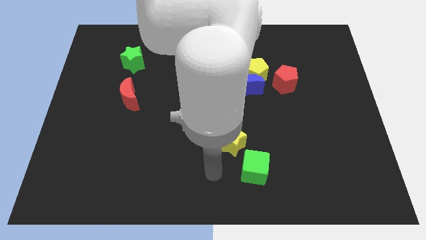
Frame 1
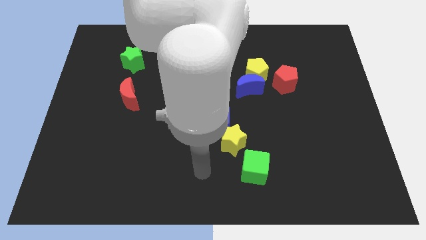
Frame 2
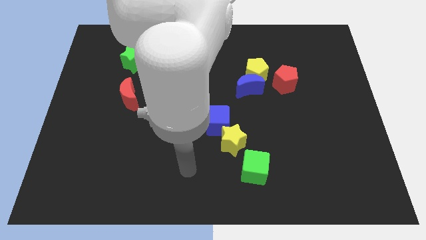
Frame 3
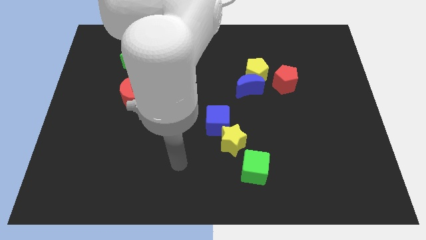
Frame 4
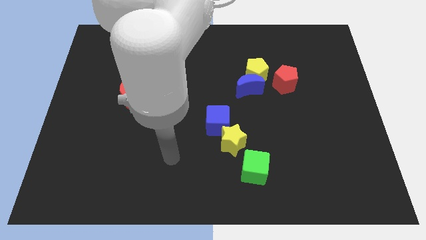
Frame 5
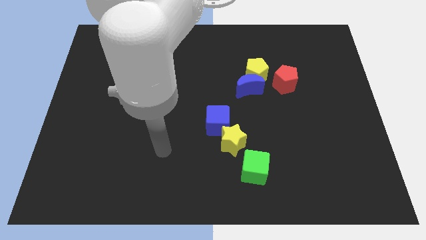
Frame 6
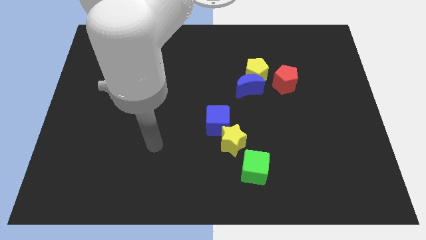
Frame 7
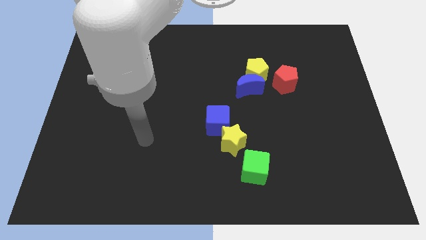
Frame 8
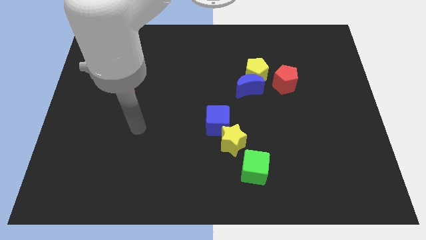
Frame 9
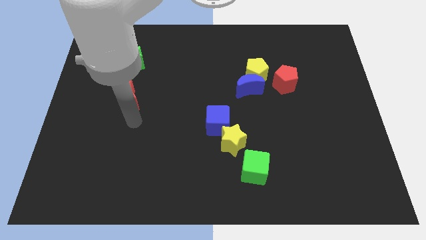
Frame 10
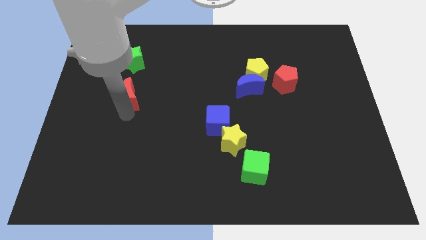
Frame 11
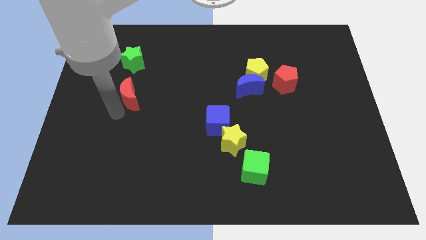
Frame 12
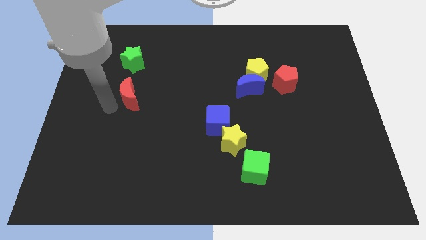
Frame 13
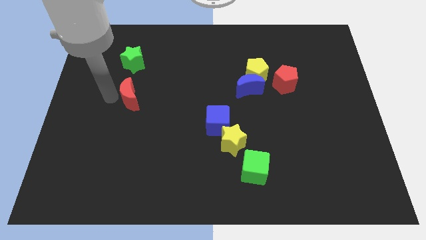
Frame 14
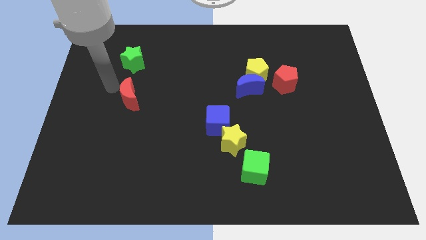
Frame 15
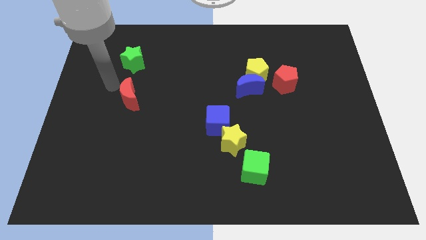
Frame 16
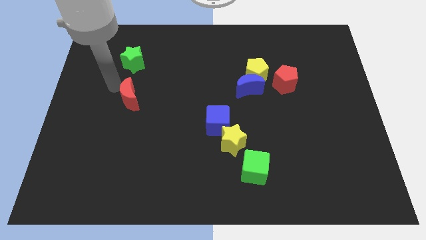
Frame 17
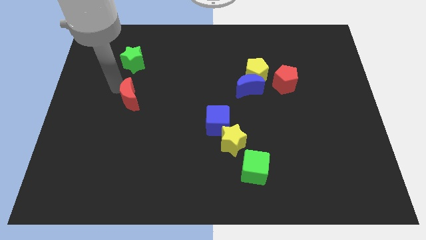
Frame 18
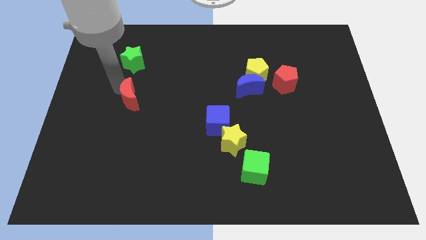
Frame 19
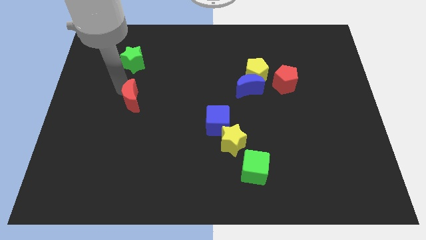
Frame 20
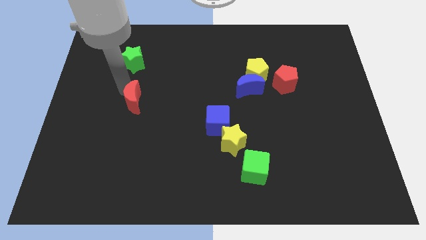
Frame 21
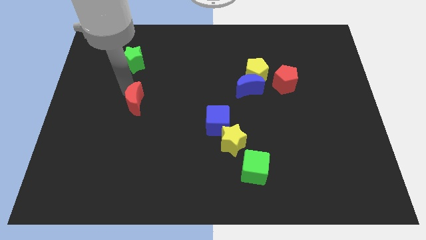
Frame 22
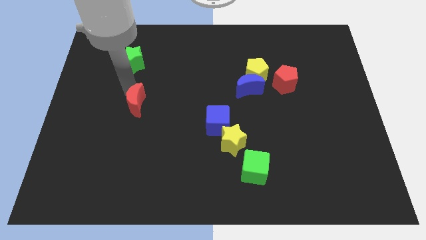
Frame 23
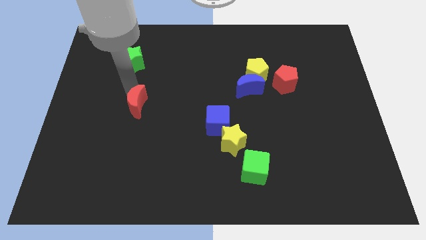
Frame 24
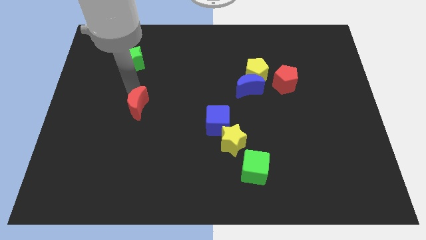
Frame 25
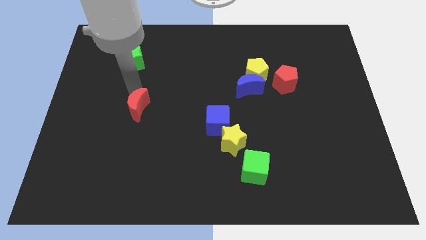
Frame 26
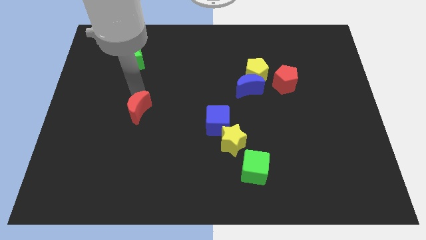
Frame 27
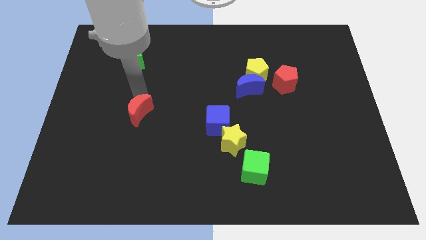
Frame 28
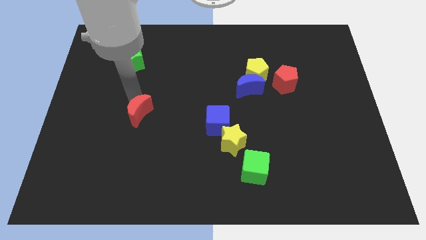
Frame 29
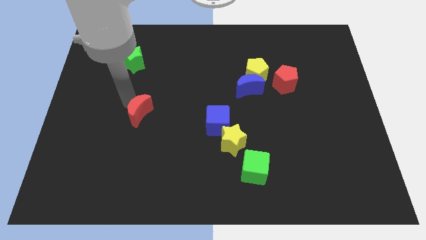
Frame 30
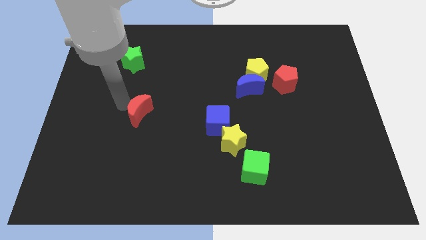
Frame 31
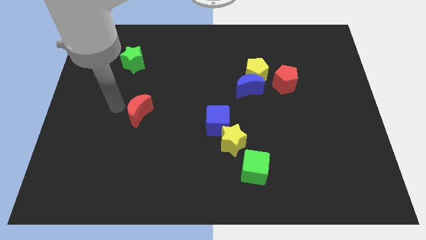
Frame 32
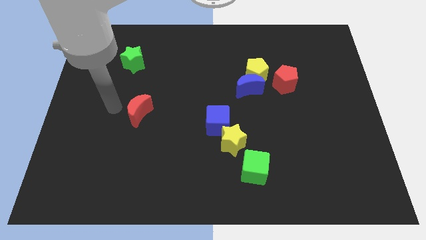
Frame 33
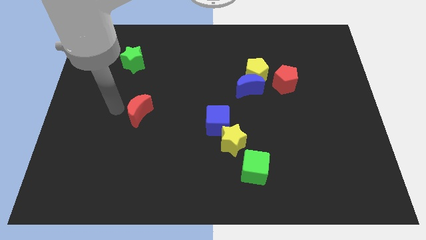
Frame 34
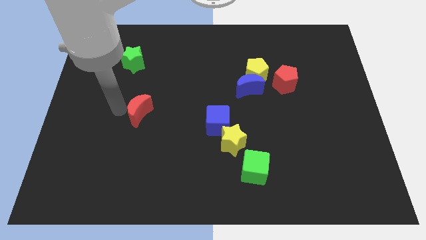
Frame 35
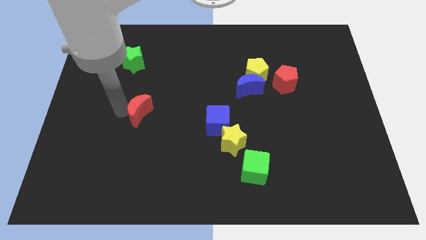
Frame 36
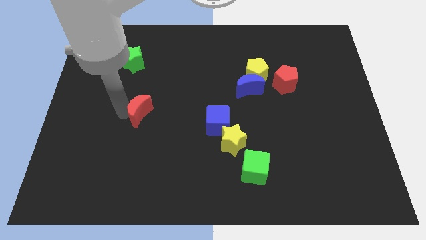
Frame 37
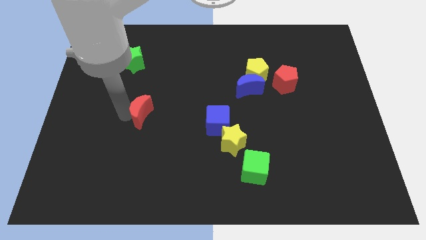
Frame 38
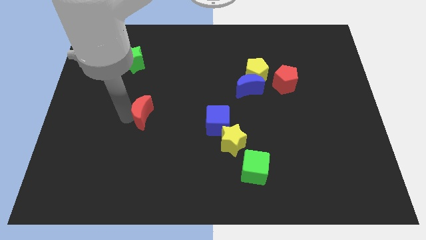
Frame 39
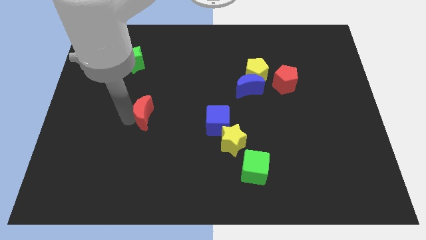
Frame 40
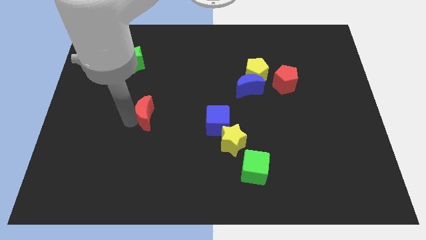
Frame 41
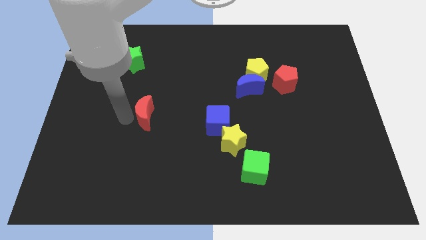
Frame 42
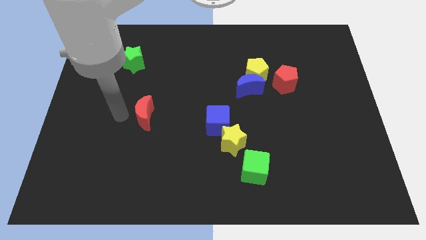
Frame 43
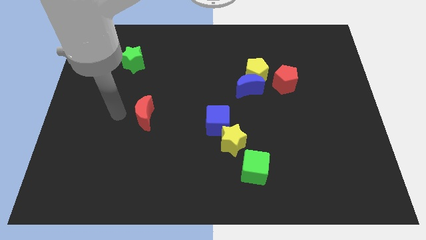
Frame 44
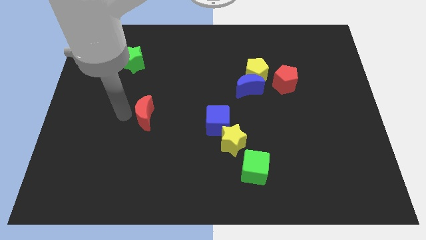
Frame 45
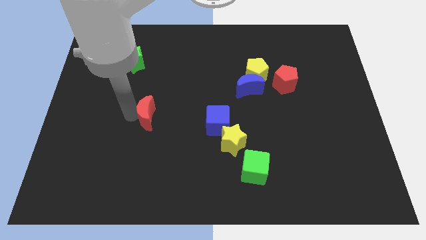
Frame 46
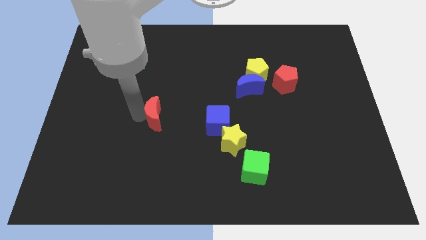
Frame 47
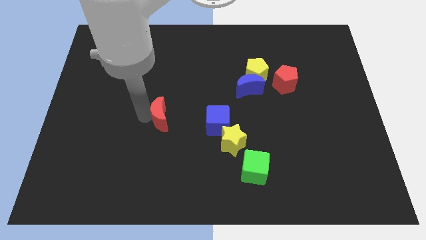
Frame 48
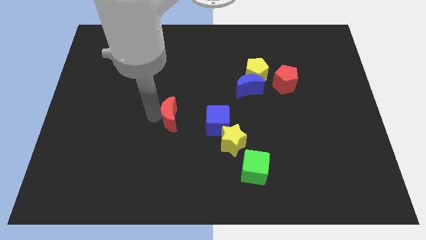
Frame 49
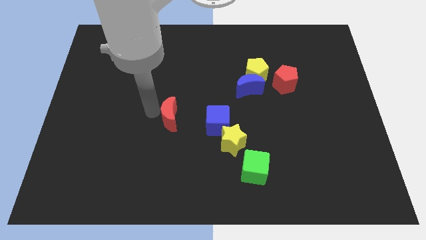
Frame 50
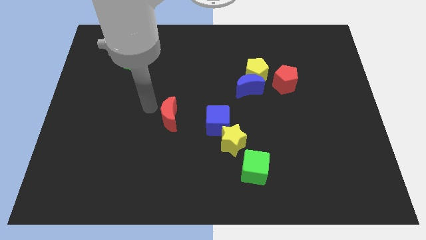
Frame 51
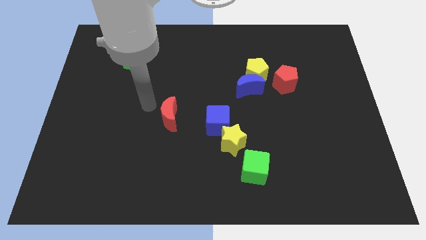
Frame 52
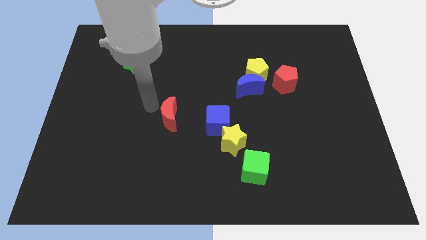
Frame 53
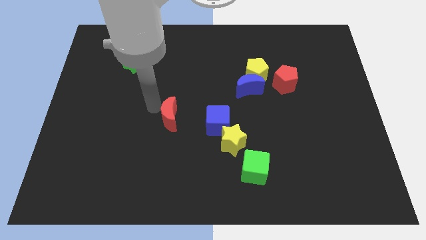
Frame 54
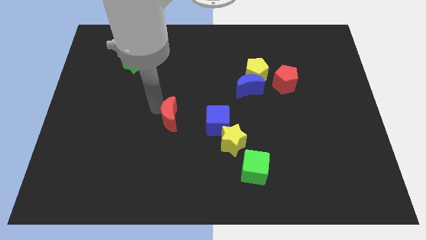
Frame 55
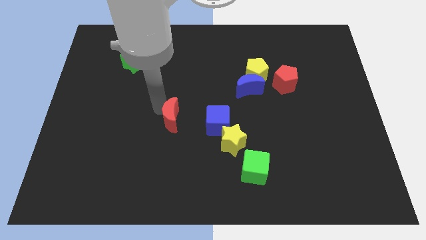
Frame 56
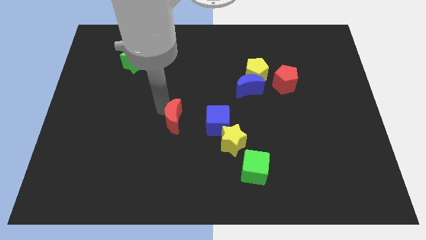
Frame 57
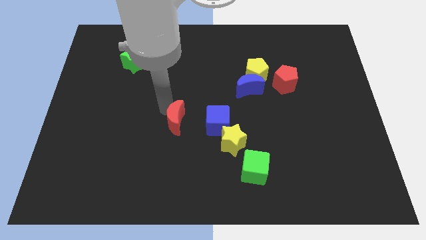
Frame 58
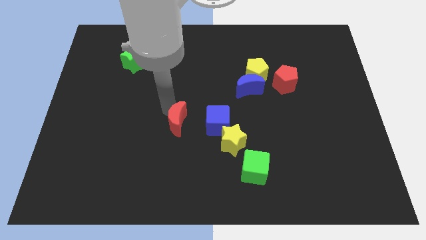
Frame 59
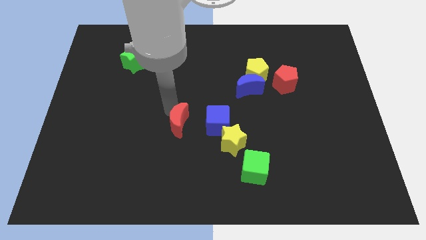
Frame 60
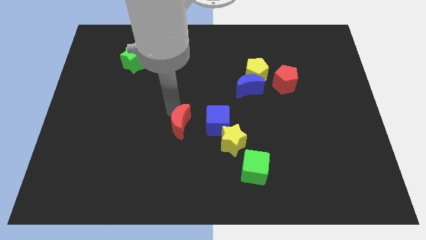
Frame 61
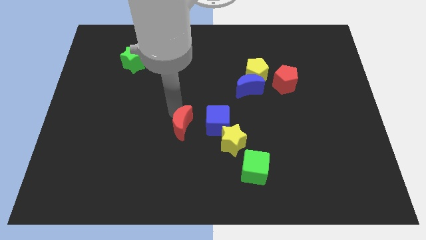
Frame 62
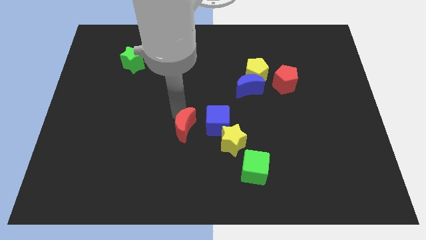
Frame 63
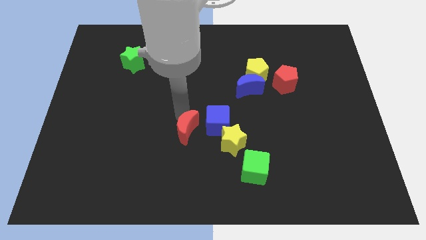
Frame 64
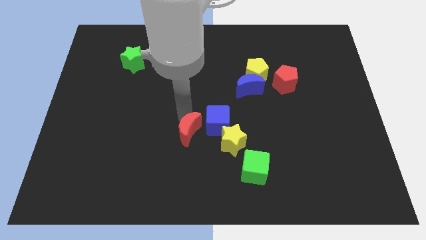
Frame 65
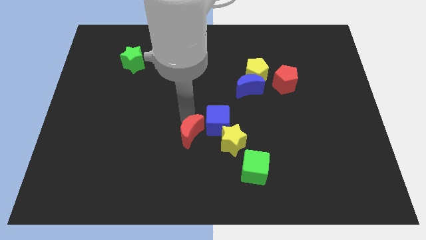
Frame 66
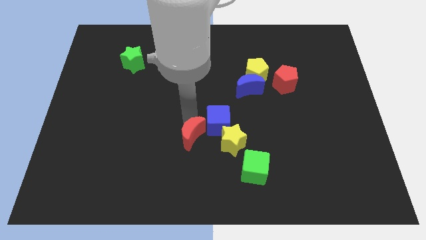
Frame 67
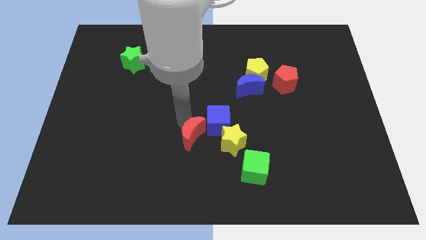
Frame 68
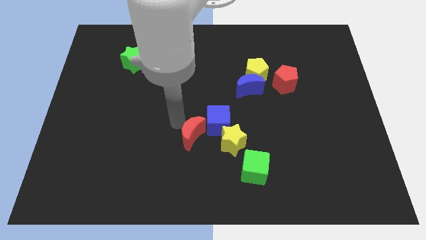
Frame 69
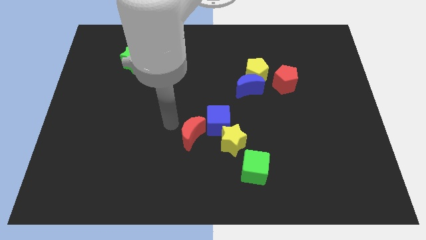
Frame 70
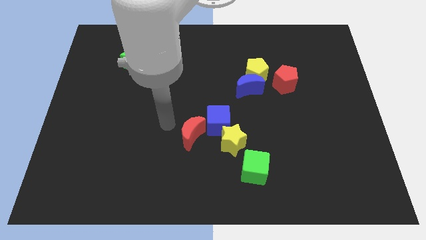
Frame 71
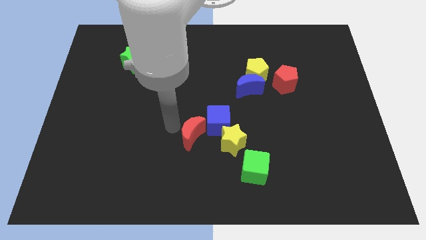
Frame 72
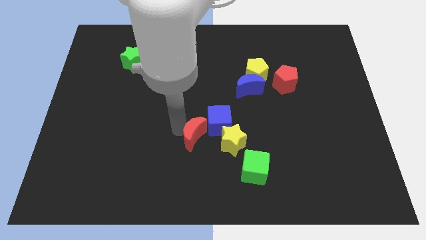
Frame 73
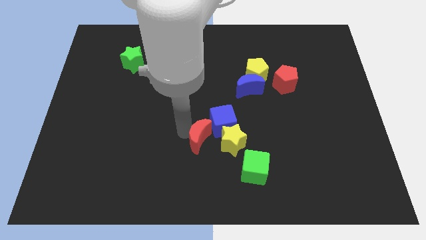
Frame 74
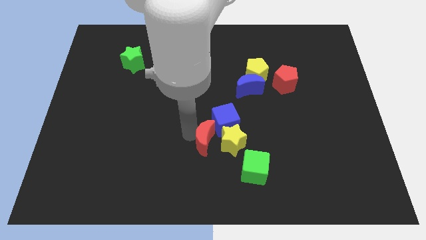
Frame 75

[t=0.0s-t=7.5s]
slide the red moon close to the yellow star

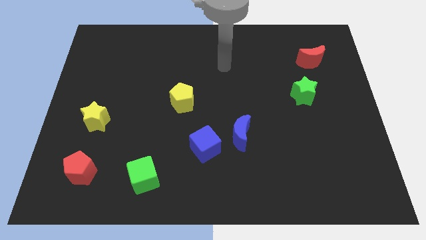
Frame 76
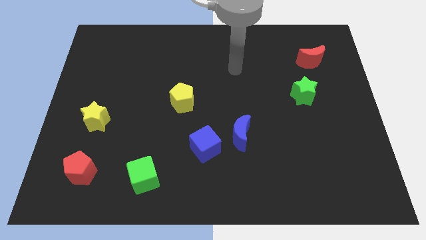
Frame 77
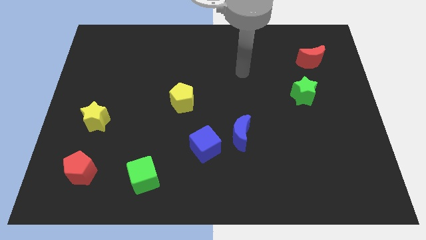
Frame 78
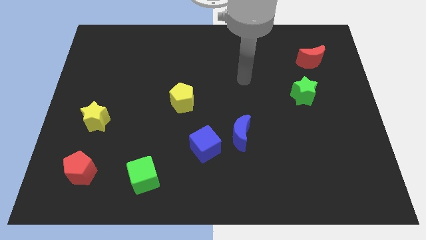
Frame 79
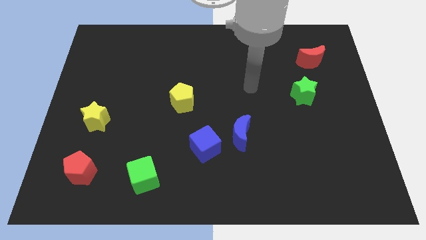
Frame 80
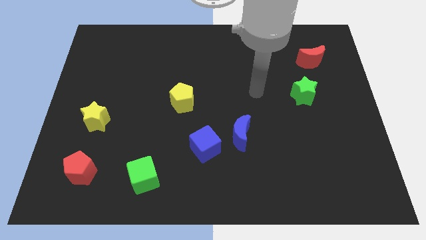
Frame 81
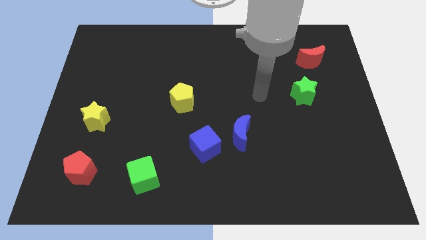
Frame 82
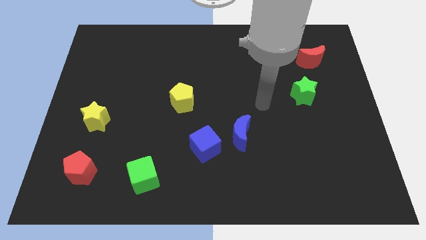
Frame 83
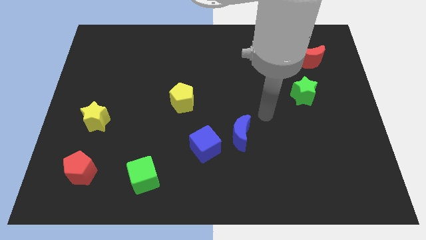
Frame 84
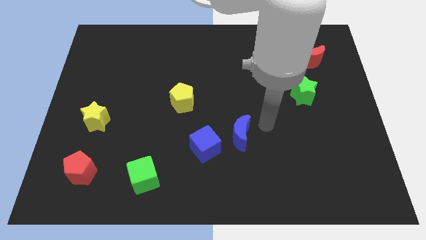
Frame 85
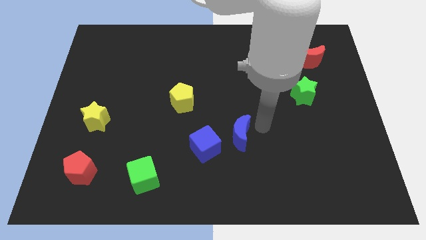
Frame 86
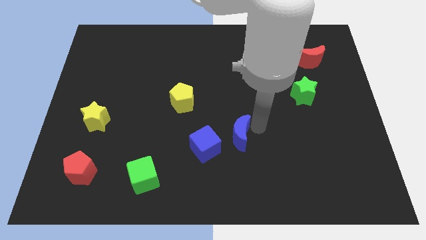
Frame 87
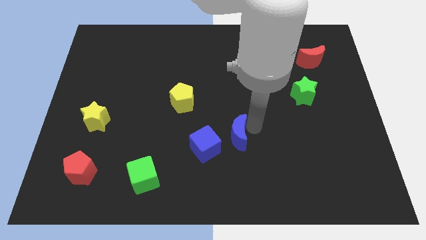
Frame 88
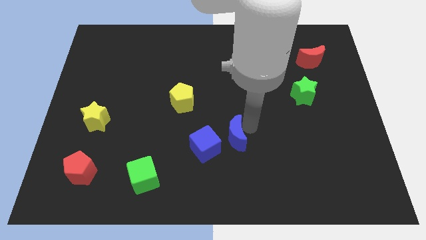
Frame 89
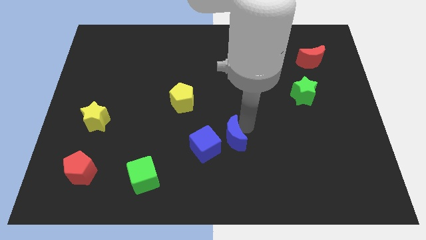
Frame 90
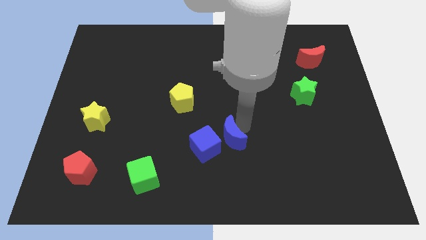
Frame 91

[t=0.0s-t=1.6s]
slide the blue moon towards the blue cube
